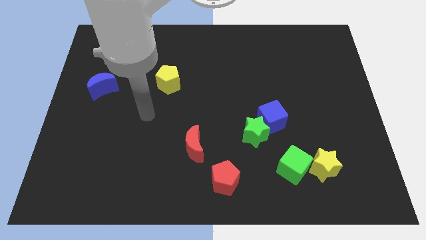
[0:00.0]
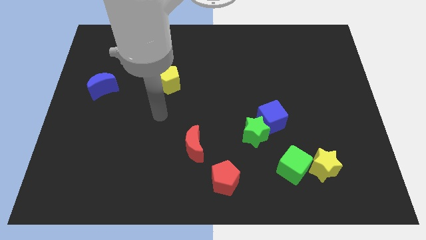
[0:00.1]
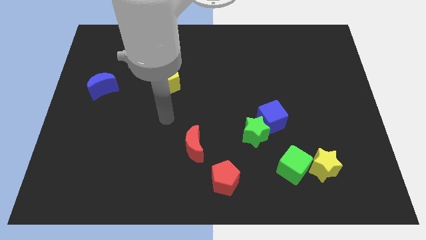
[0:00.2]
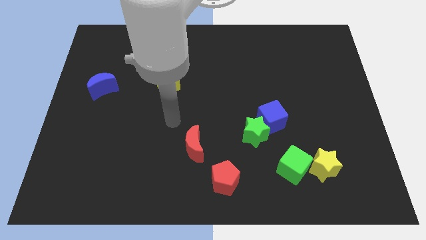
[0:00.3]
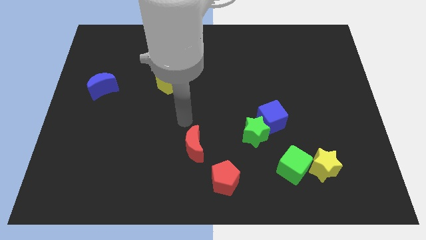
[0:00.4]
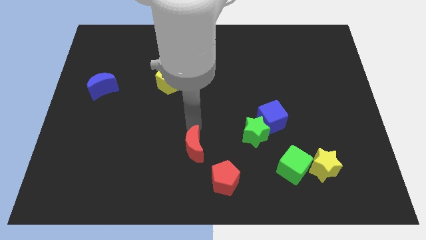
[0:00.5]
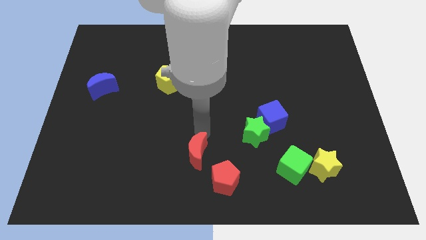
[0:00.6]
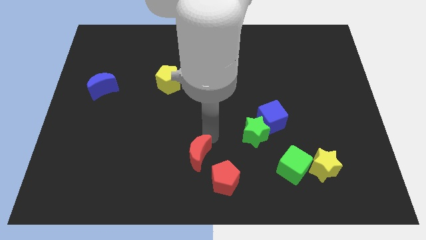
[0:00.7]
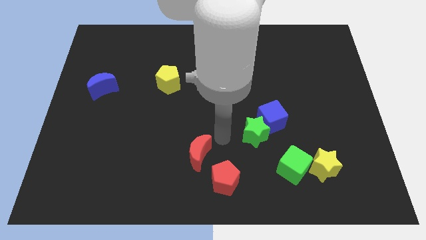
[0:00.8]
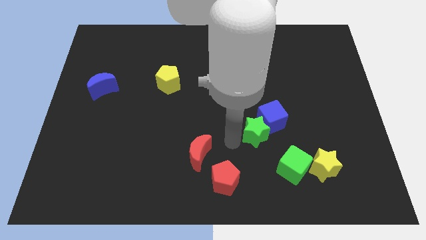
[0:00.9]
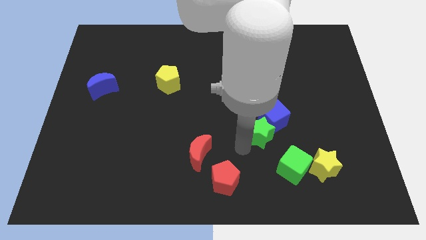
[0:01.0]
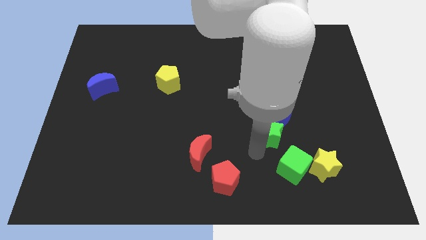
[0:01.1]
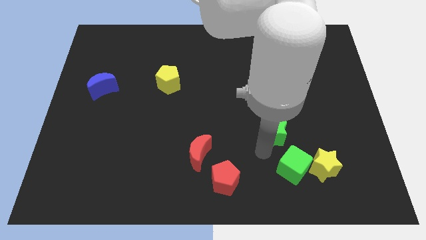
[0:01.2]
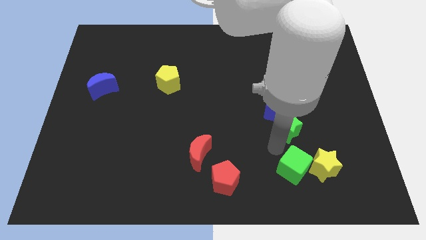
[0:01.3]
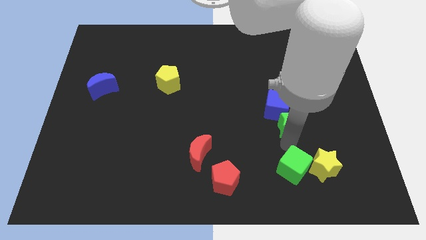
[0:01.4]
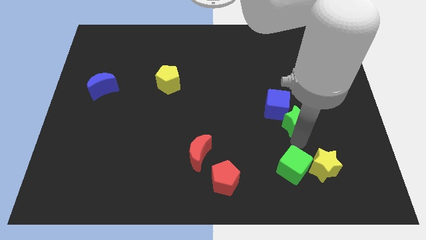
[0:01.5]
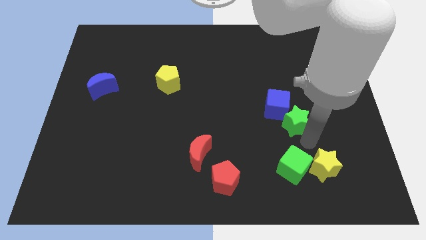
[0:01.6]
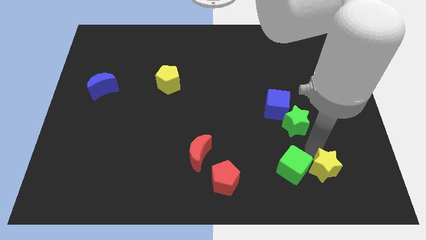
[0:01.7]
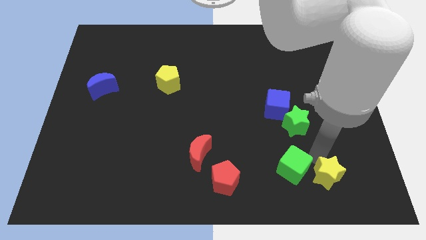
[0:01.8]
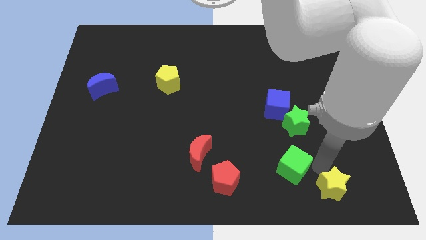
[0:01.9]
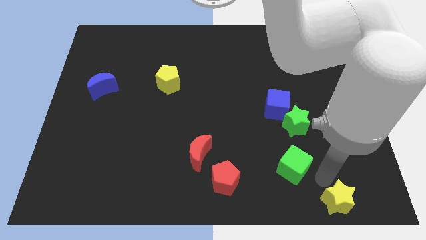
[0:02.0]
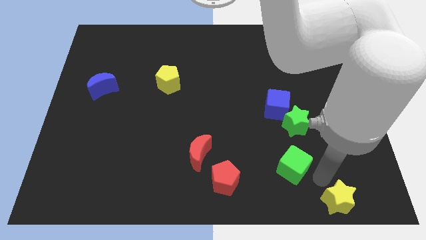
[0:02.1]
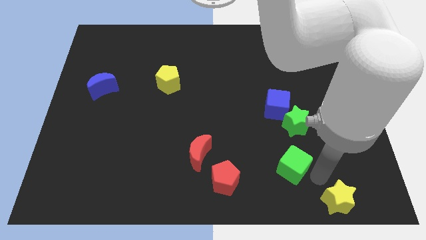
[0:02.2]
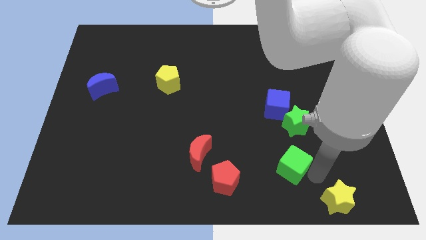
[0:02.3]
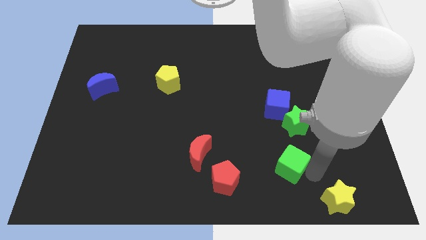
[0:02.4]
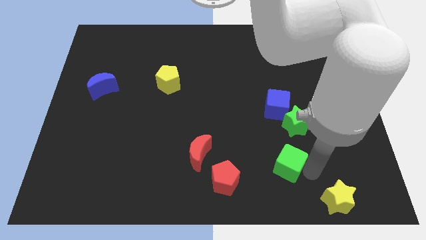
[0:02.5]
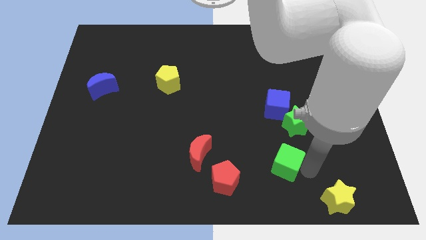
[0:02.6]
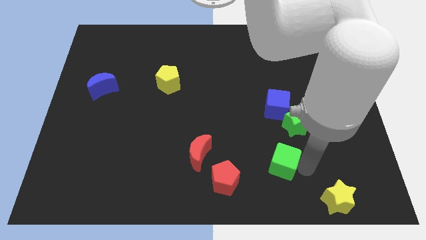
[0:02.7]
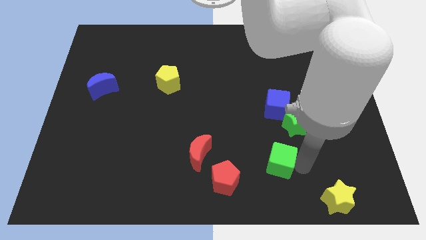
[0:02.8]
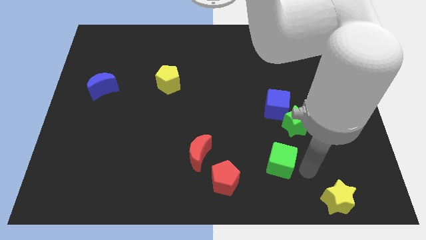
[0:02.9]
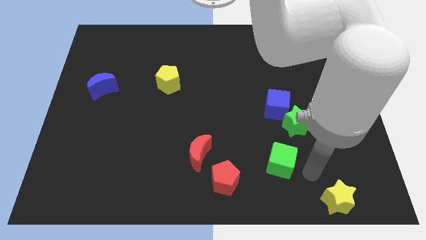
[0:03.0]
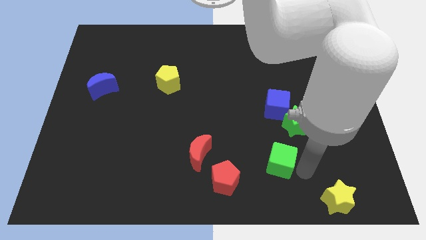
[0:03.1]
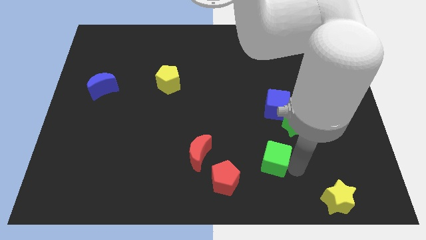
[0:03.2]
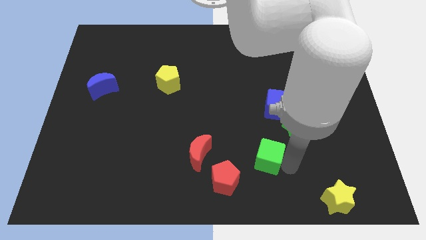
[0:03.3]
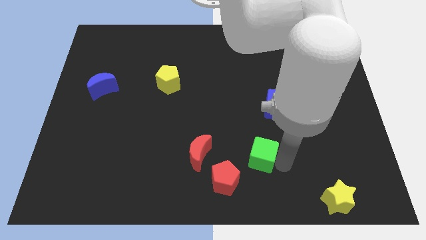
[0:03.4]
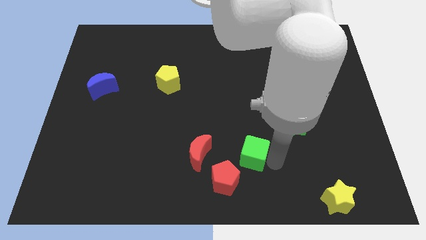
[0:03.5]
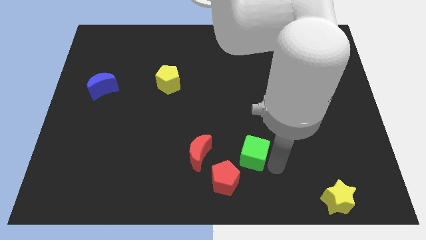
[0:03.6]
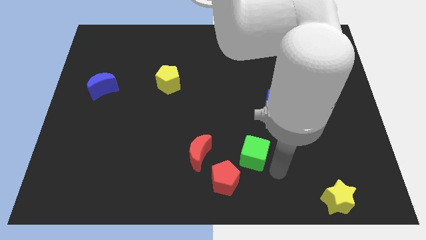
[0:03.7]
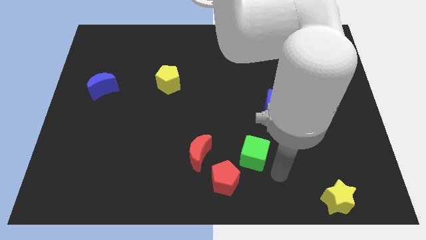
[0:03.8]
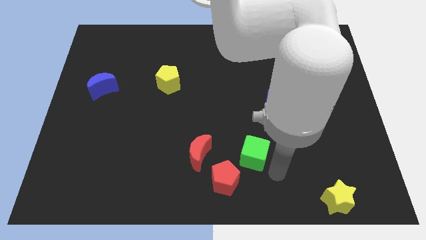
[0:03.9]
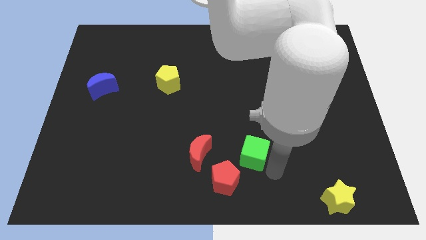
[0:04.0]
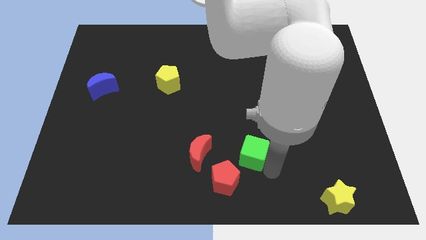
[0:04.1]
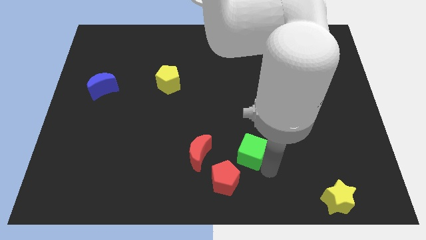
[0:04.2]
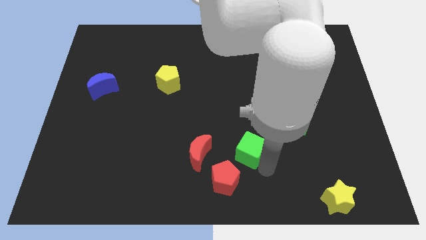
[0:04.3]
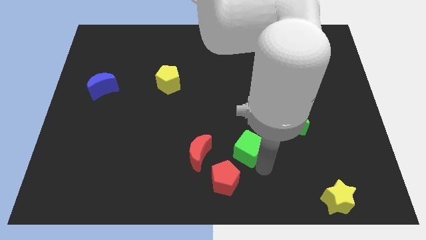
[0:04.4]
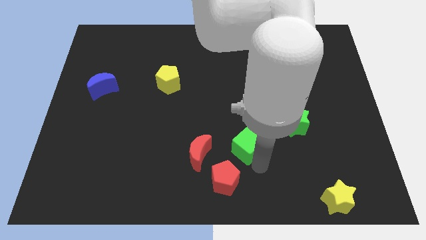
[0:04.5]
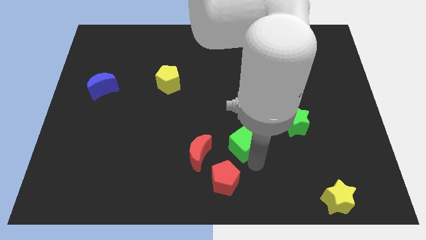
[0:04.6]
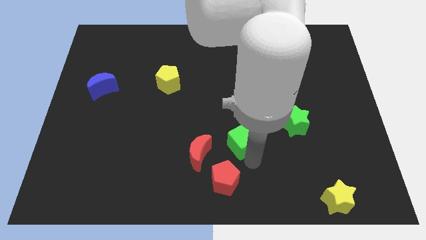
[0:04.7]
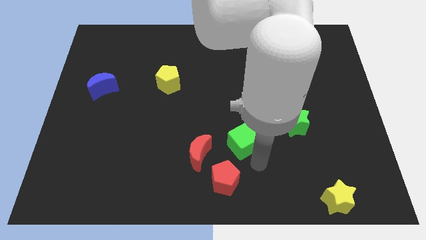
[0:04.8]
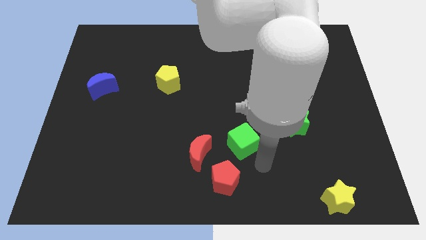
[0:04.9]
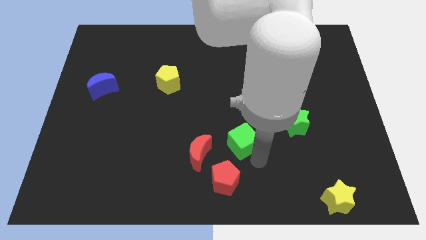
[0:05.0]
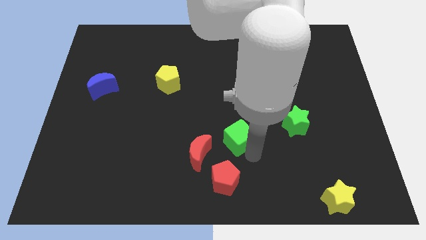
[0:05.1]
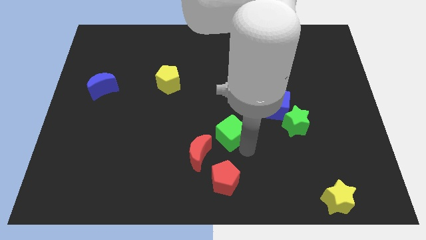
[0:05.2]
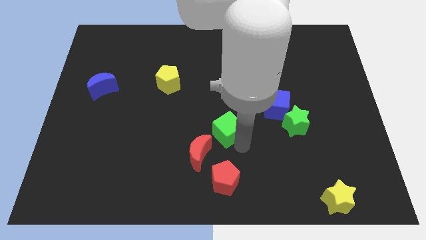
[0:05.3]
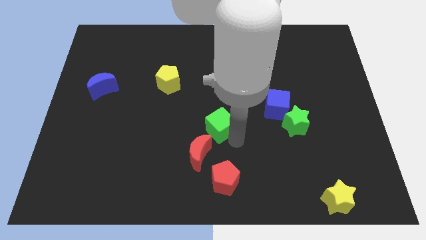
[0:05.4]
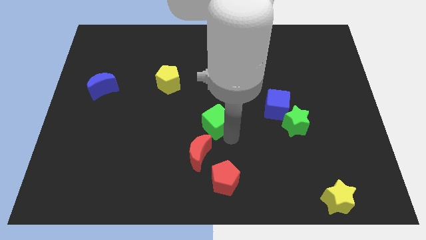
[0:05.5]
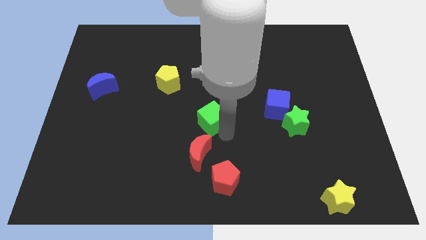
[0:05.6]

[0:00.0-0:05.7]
slide the green cube upwards and left diagonally

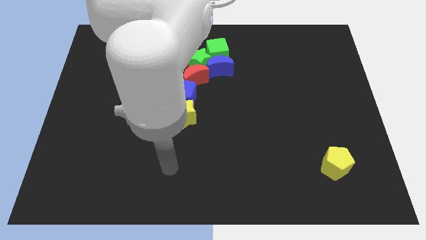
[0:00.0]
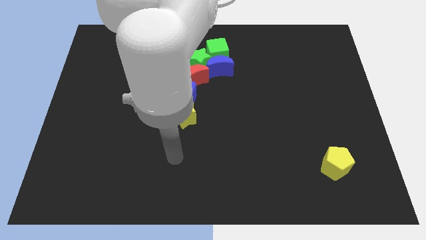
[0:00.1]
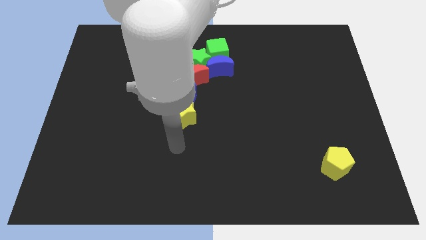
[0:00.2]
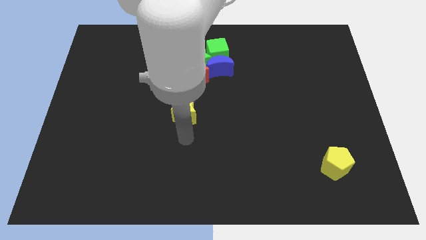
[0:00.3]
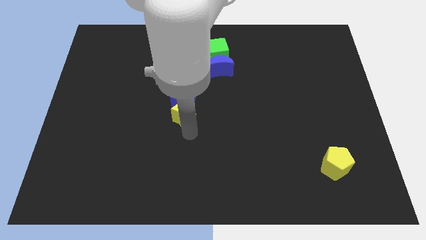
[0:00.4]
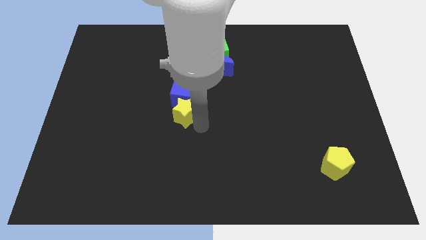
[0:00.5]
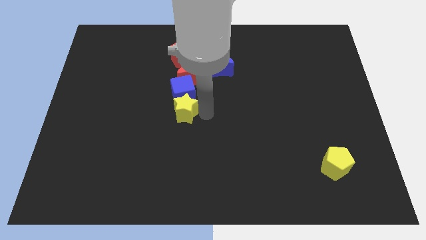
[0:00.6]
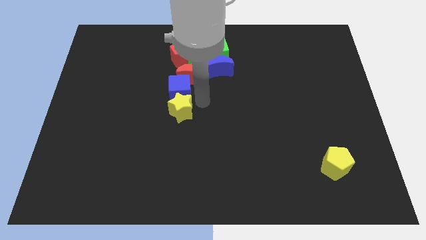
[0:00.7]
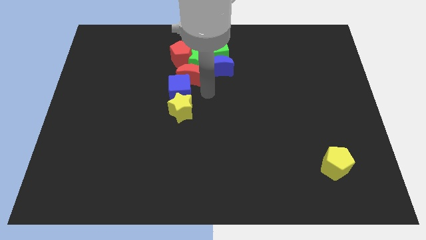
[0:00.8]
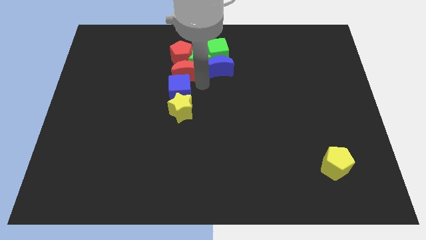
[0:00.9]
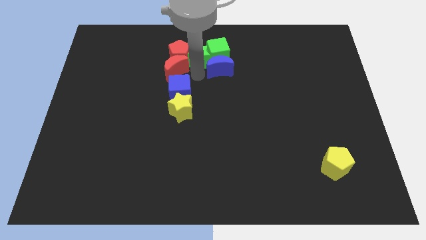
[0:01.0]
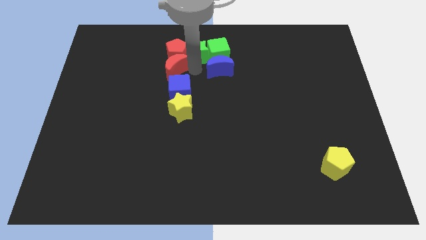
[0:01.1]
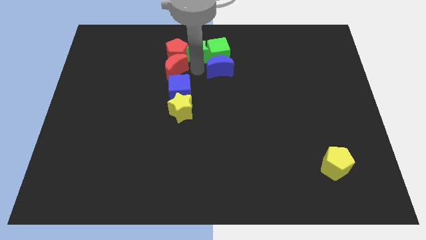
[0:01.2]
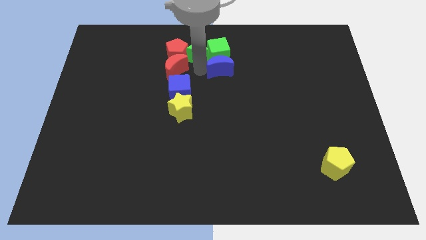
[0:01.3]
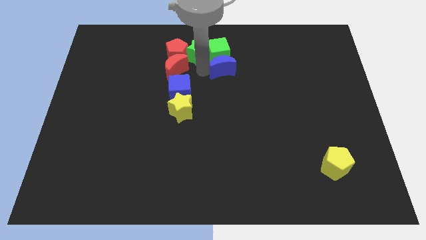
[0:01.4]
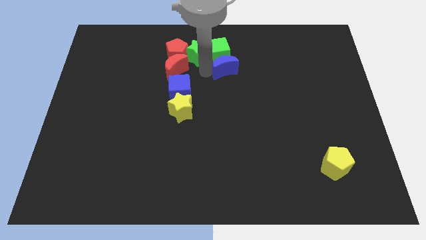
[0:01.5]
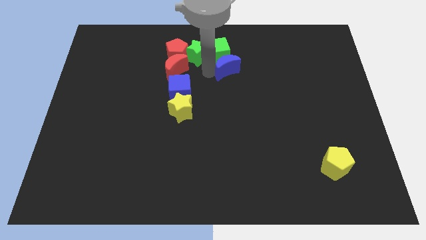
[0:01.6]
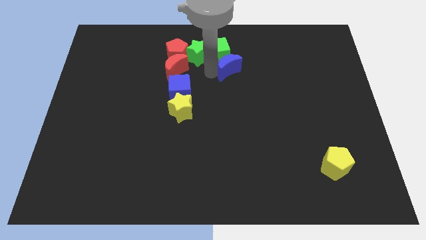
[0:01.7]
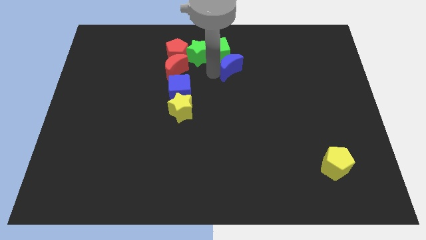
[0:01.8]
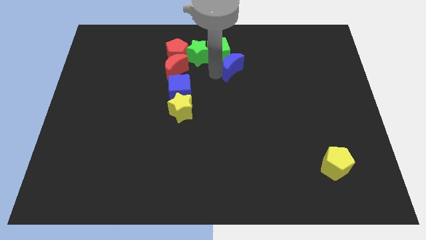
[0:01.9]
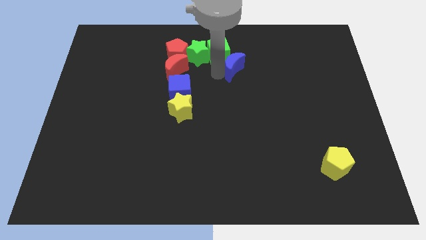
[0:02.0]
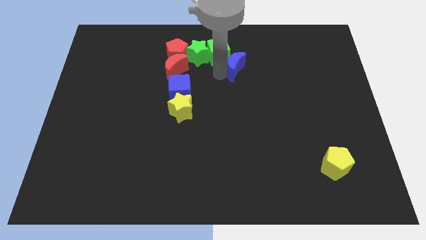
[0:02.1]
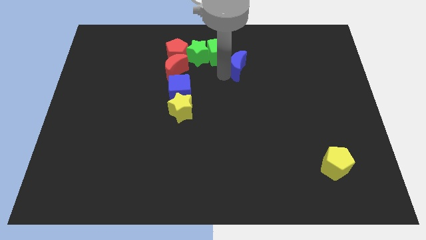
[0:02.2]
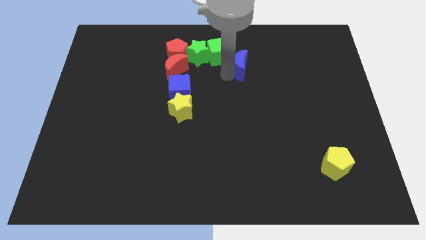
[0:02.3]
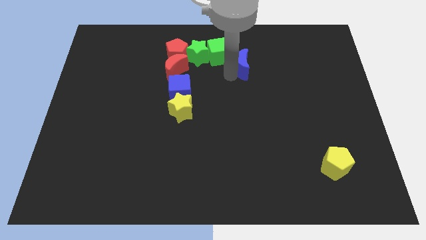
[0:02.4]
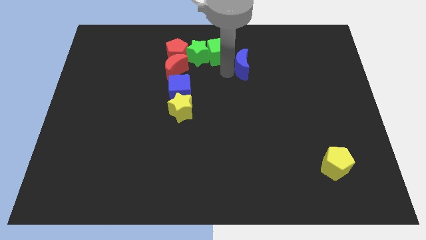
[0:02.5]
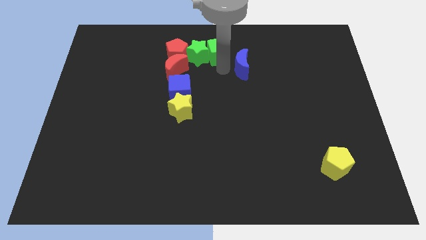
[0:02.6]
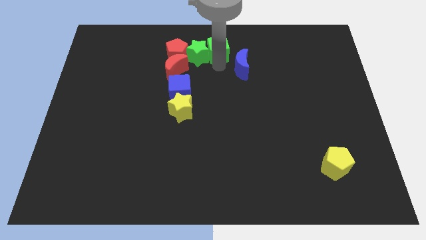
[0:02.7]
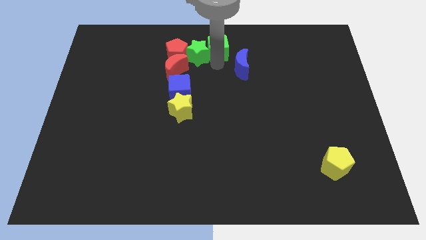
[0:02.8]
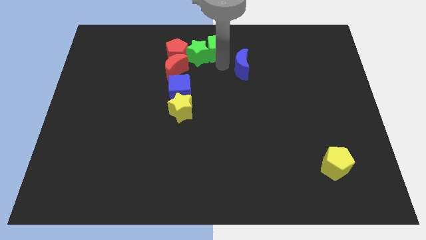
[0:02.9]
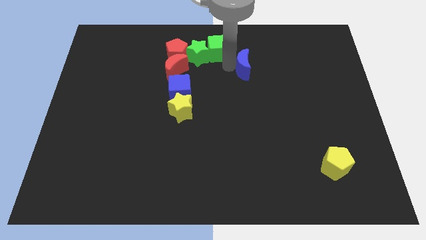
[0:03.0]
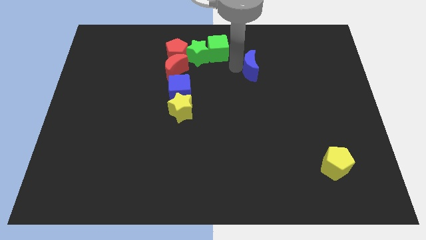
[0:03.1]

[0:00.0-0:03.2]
move the blue moon a bit right
